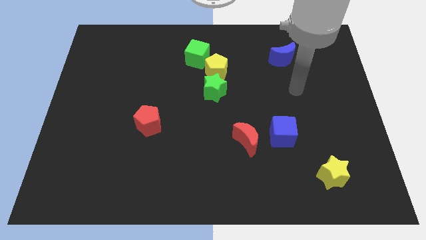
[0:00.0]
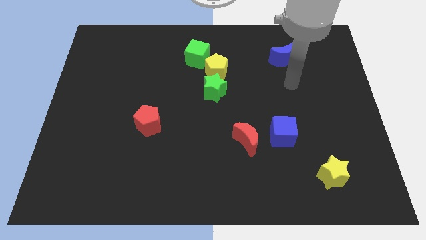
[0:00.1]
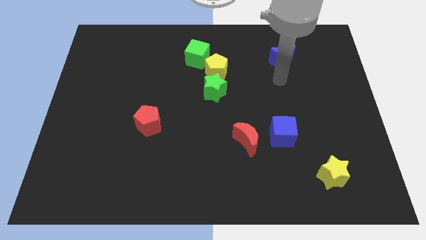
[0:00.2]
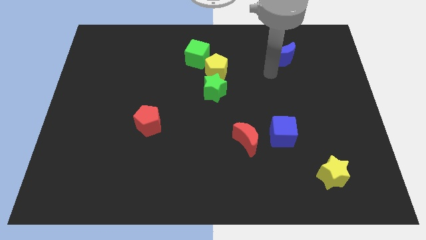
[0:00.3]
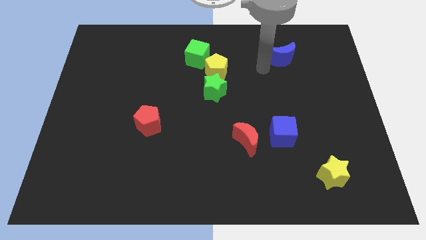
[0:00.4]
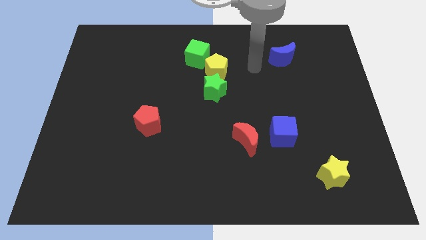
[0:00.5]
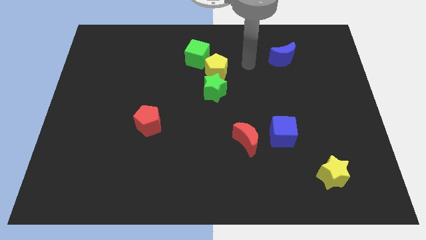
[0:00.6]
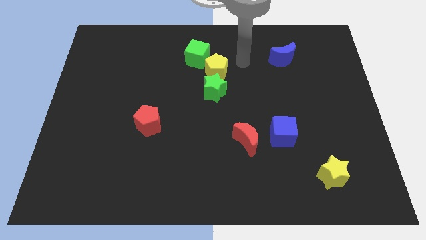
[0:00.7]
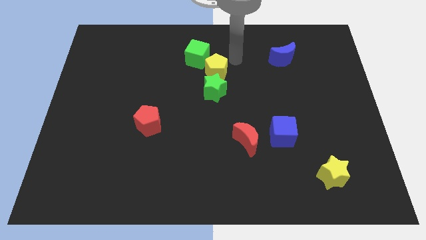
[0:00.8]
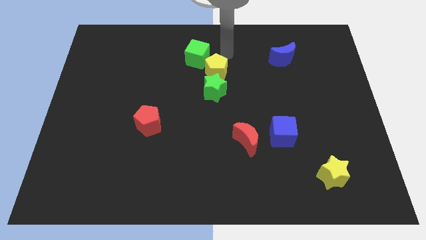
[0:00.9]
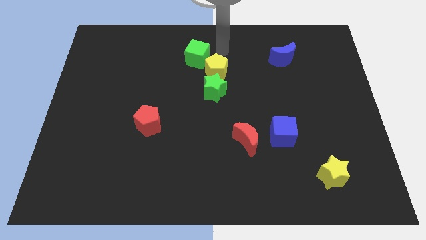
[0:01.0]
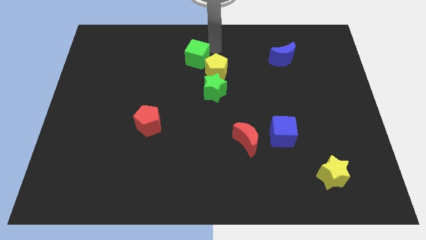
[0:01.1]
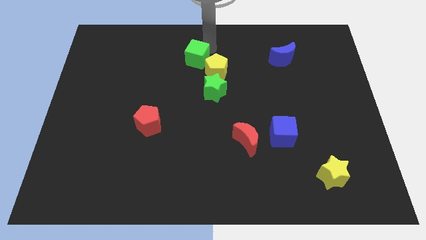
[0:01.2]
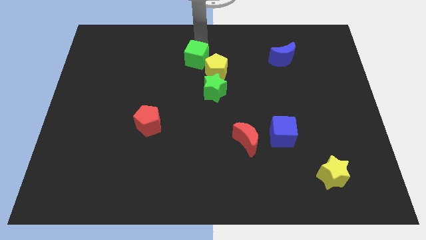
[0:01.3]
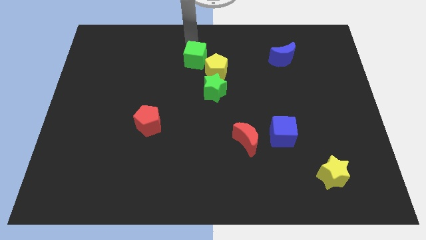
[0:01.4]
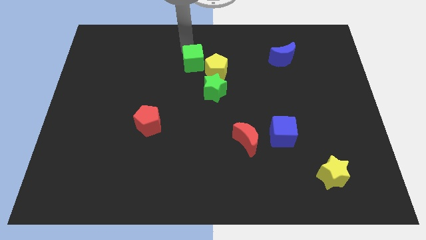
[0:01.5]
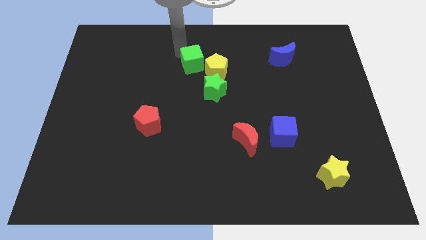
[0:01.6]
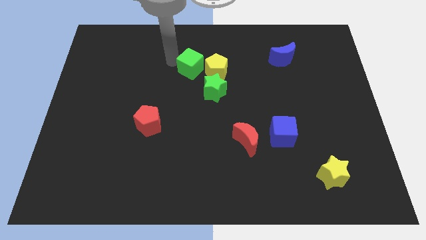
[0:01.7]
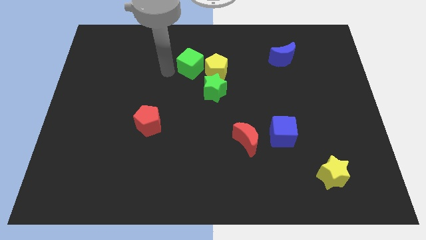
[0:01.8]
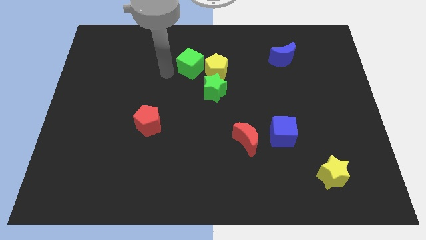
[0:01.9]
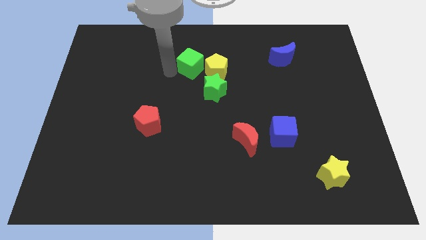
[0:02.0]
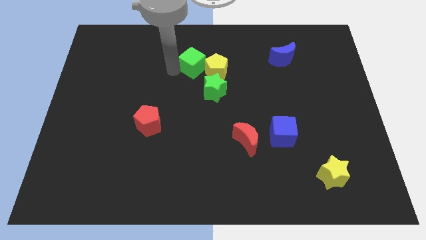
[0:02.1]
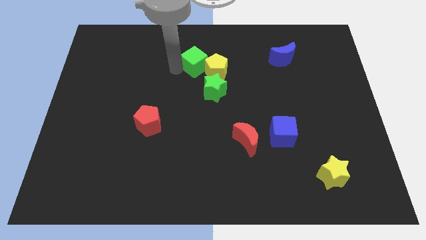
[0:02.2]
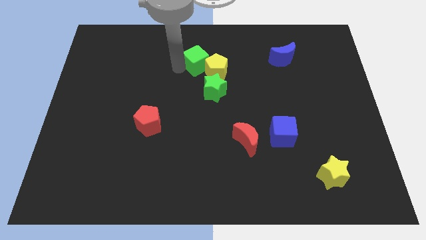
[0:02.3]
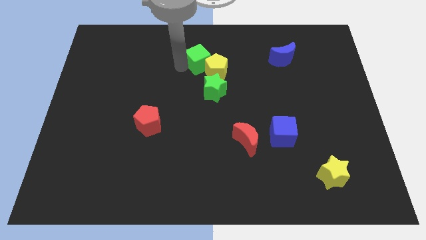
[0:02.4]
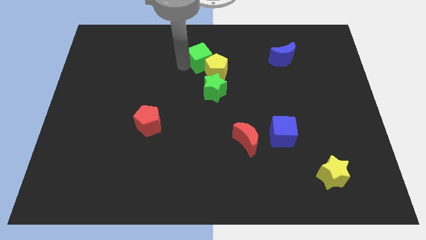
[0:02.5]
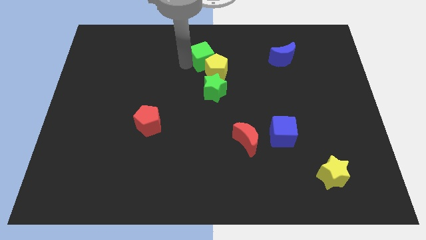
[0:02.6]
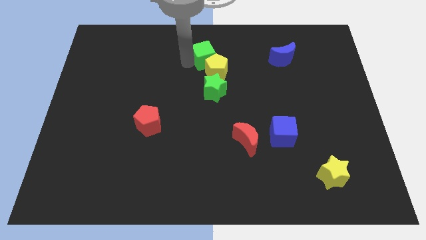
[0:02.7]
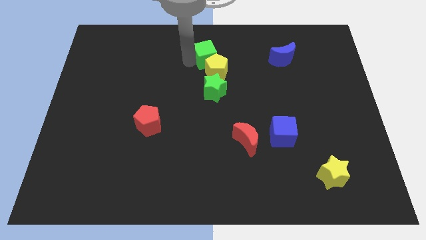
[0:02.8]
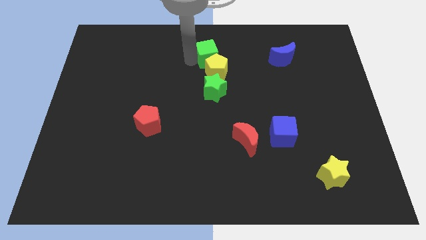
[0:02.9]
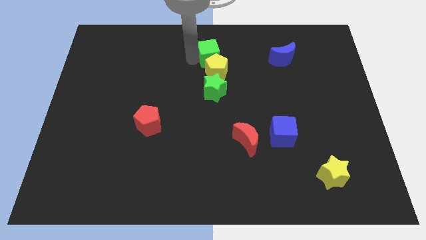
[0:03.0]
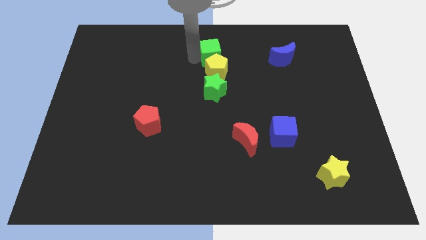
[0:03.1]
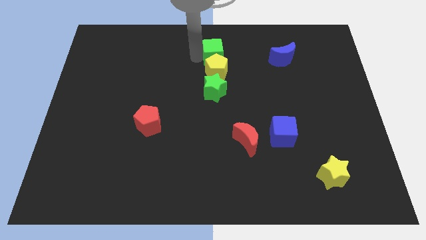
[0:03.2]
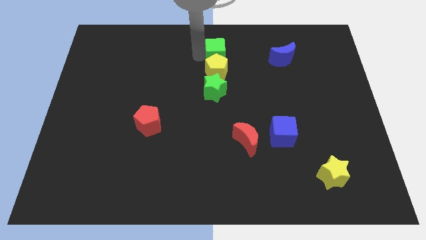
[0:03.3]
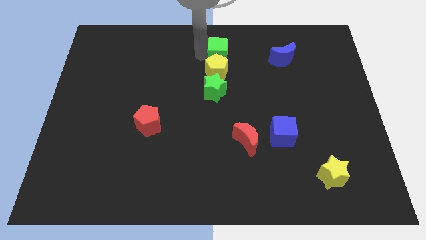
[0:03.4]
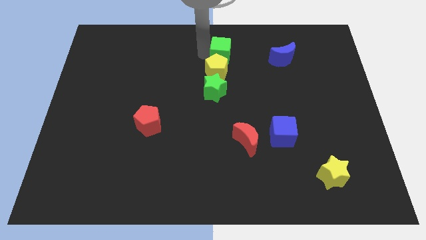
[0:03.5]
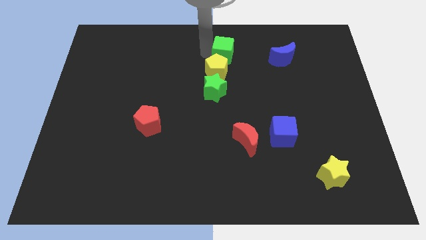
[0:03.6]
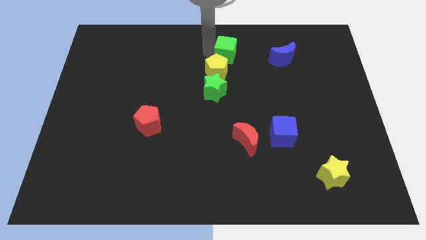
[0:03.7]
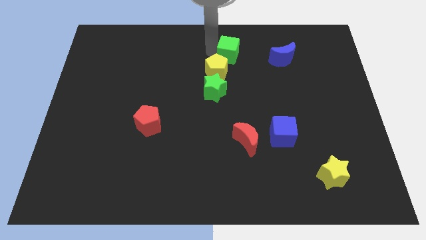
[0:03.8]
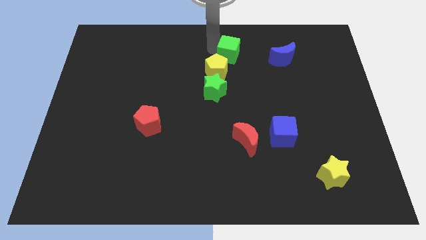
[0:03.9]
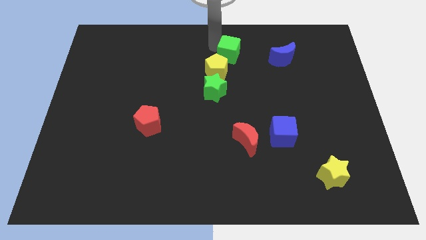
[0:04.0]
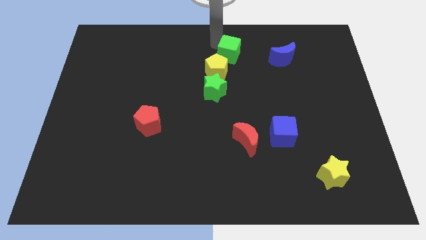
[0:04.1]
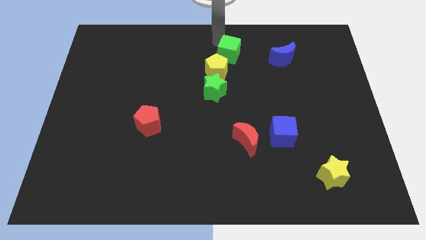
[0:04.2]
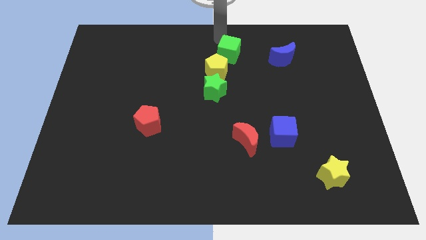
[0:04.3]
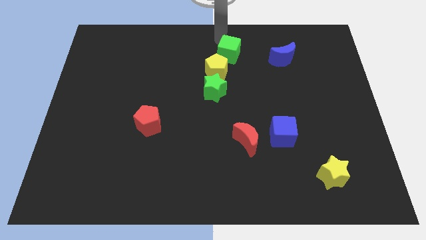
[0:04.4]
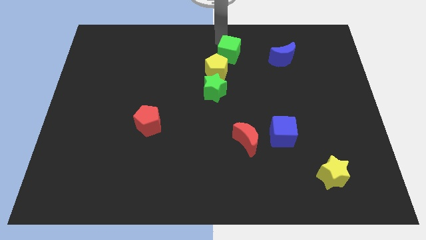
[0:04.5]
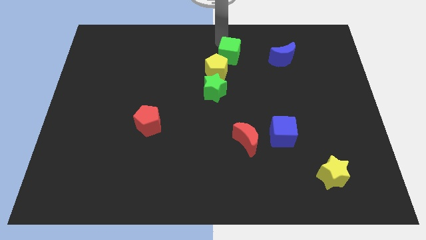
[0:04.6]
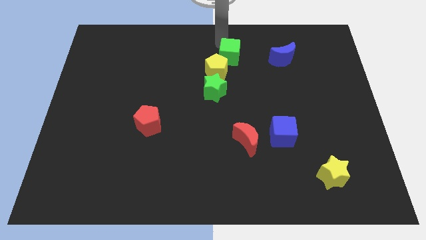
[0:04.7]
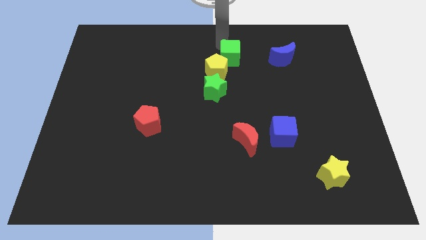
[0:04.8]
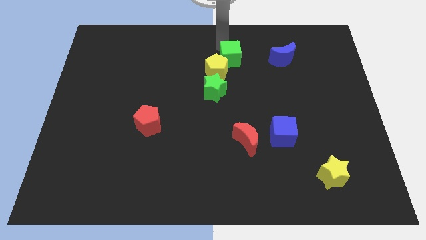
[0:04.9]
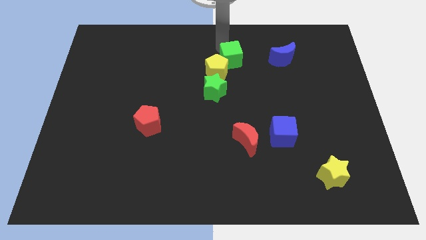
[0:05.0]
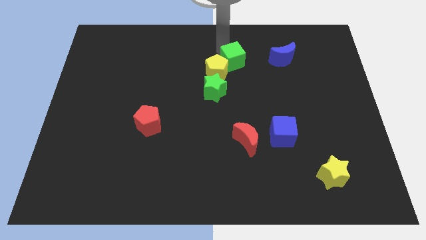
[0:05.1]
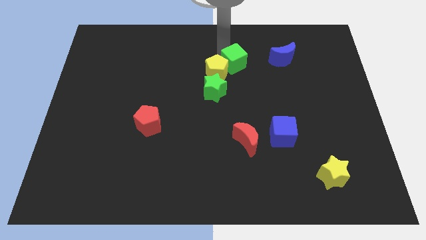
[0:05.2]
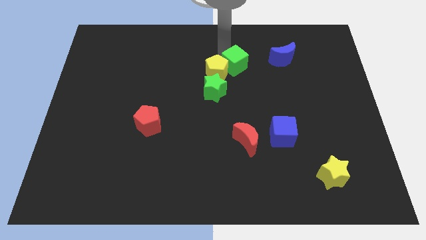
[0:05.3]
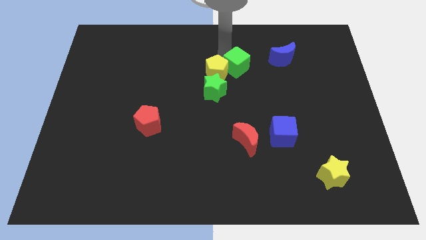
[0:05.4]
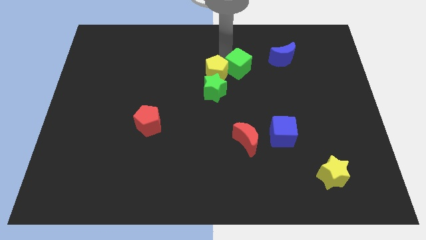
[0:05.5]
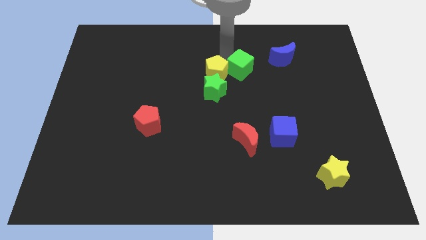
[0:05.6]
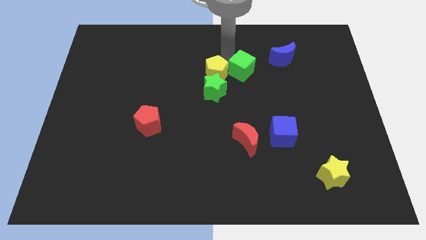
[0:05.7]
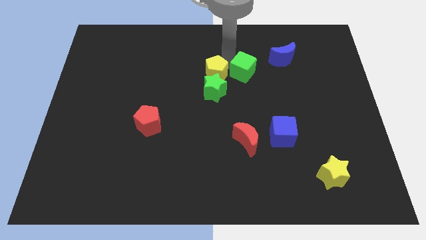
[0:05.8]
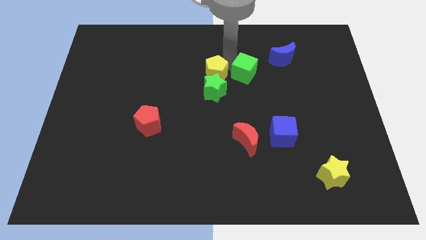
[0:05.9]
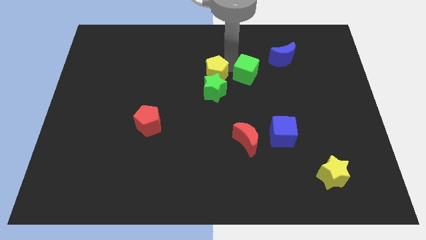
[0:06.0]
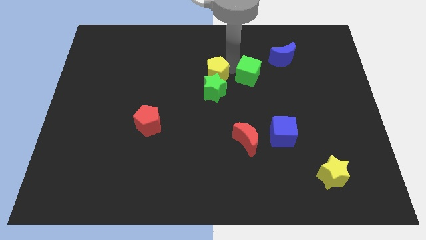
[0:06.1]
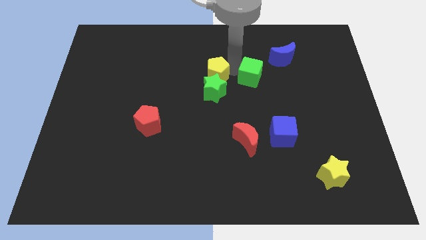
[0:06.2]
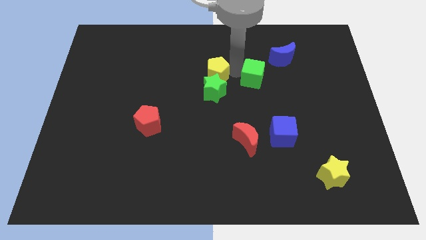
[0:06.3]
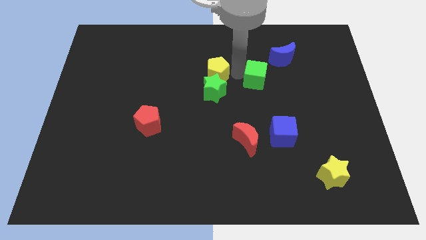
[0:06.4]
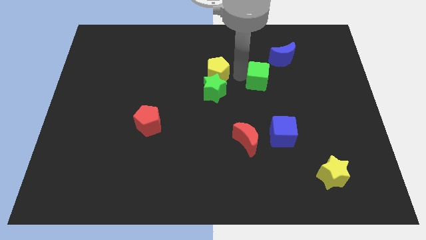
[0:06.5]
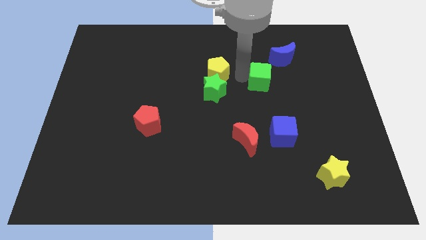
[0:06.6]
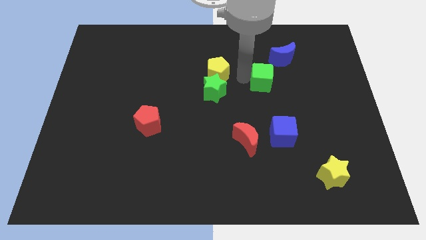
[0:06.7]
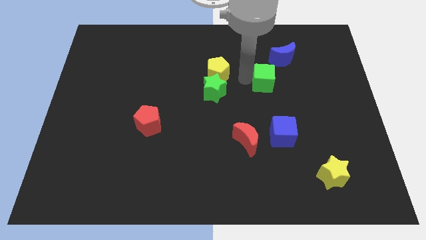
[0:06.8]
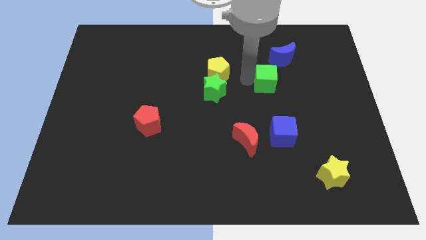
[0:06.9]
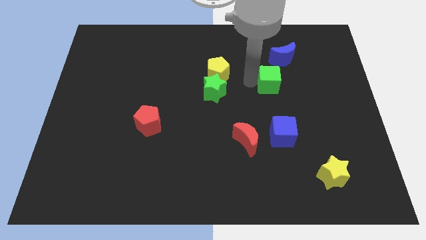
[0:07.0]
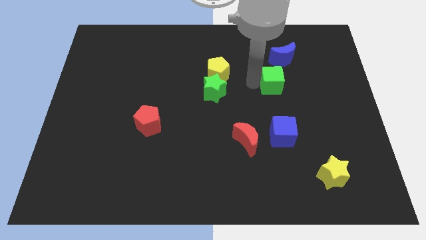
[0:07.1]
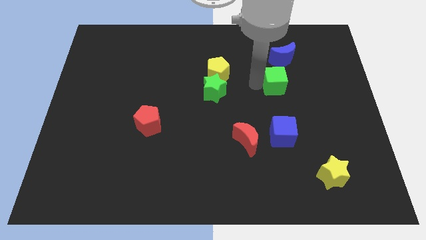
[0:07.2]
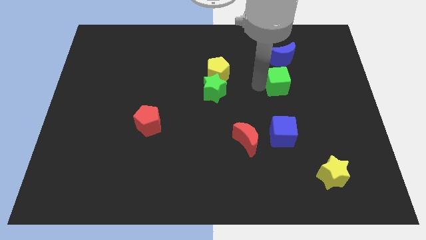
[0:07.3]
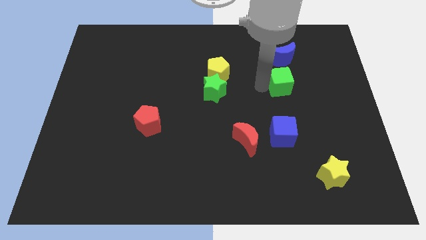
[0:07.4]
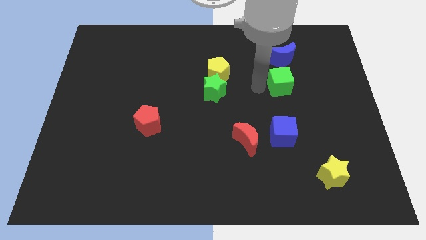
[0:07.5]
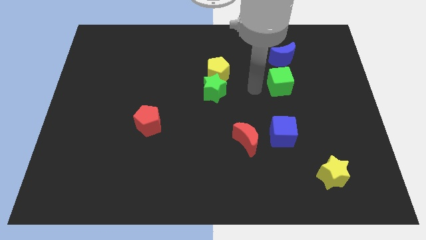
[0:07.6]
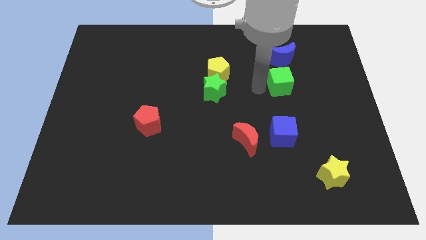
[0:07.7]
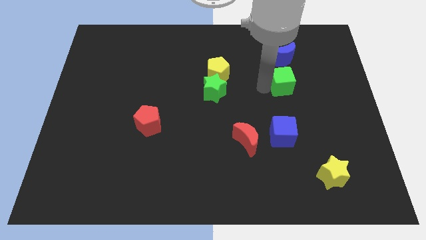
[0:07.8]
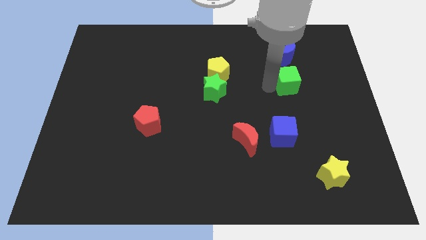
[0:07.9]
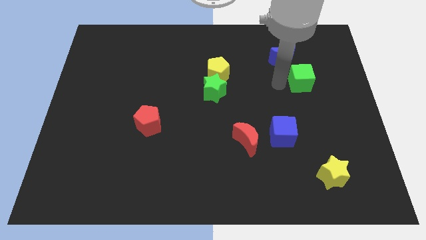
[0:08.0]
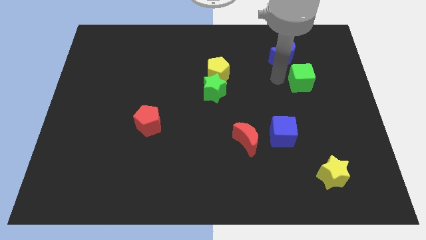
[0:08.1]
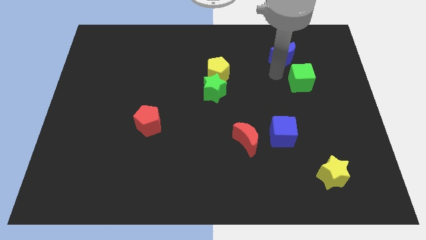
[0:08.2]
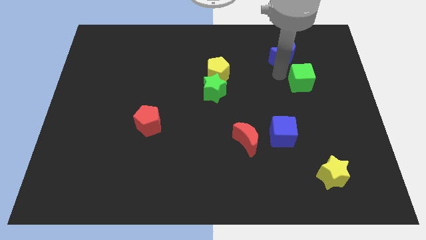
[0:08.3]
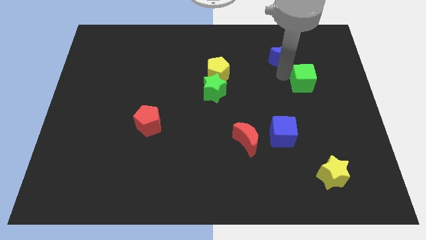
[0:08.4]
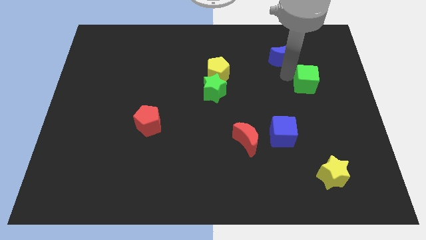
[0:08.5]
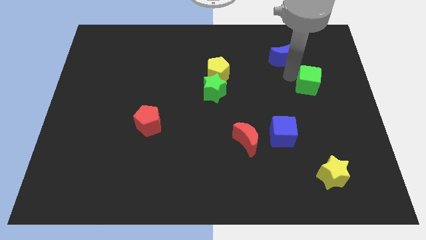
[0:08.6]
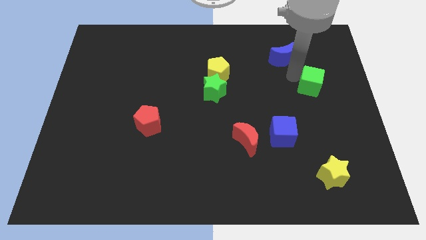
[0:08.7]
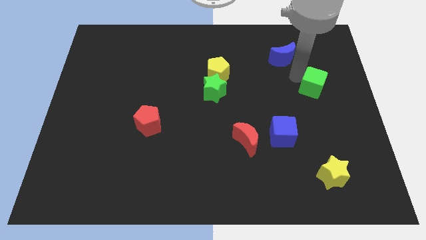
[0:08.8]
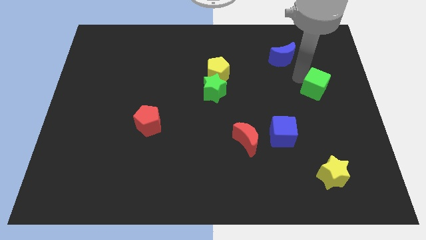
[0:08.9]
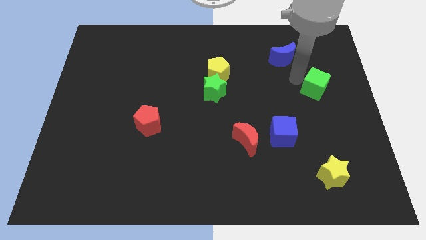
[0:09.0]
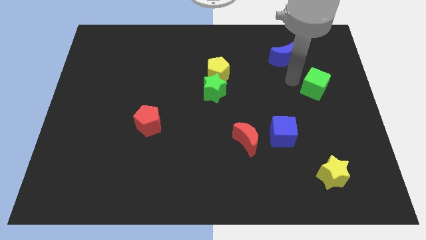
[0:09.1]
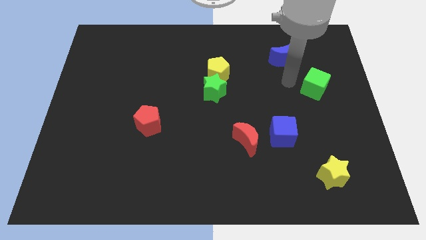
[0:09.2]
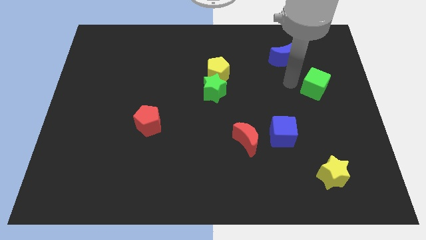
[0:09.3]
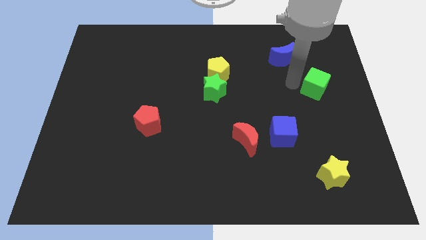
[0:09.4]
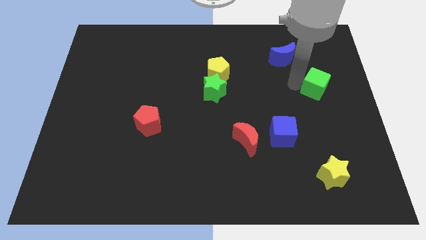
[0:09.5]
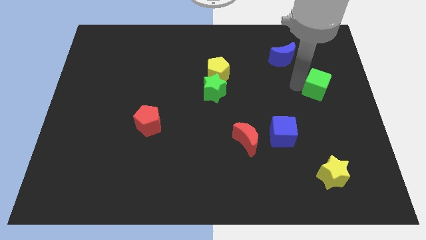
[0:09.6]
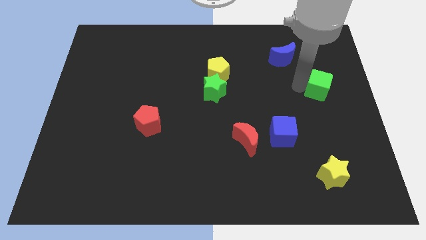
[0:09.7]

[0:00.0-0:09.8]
push the green cube to the right side
